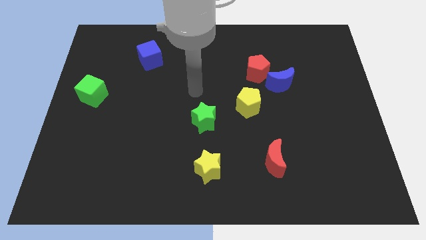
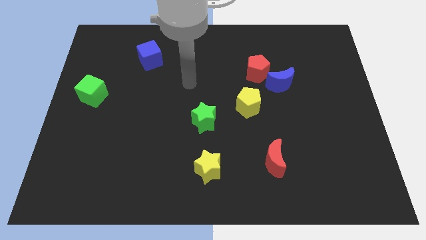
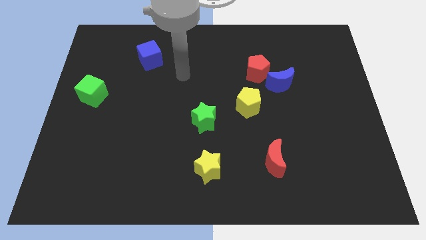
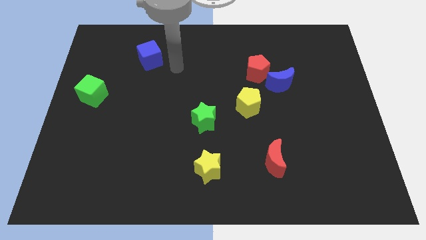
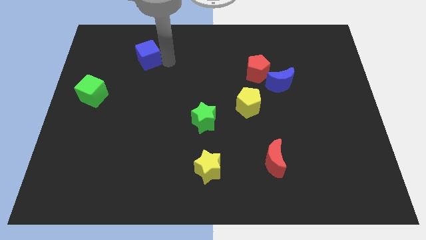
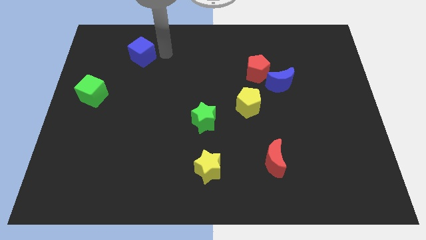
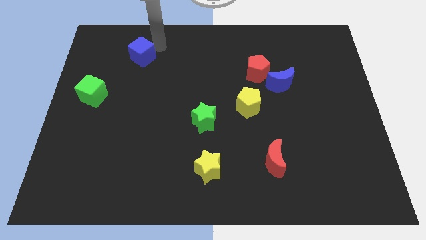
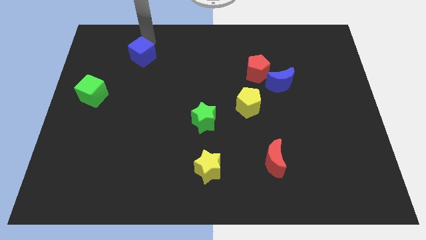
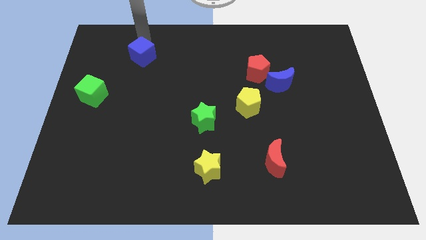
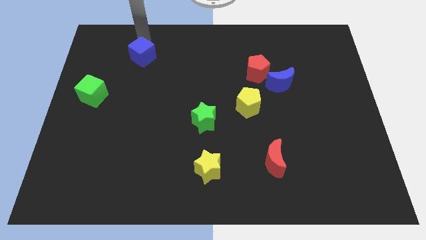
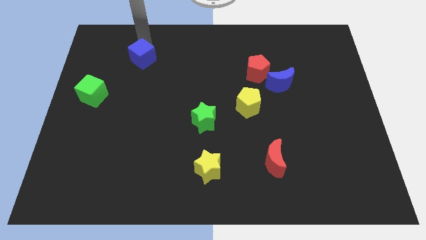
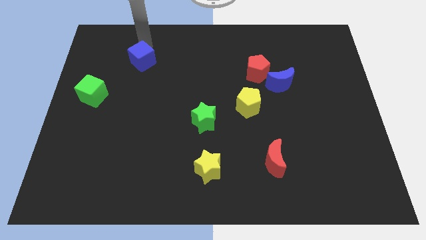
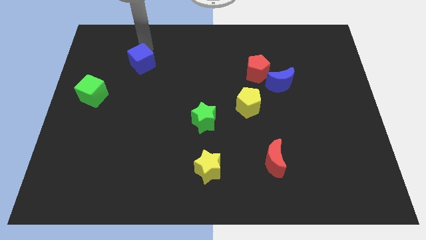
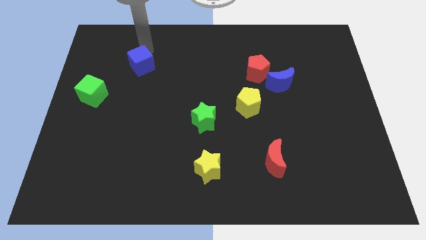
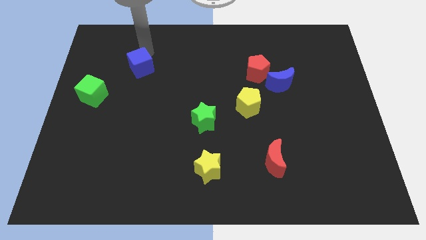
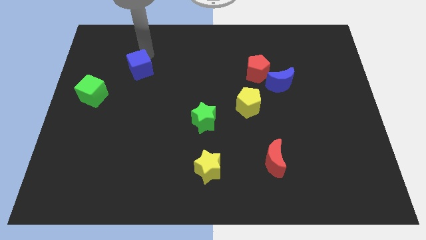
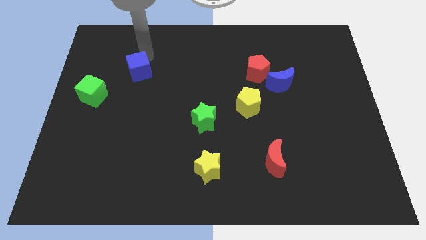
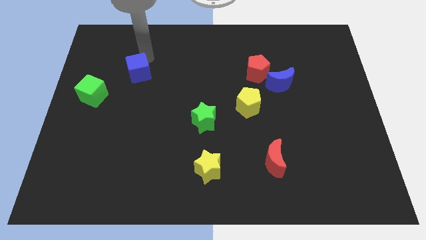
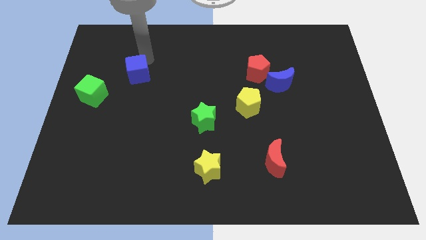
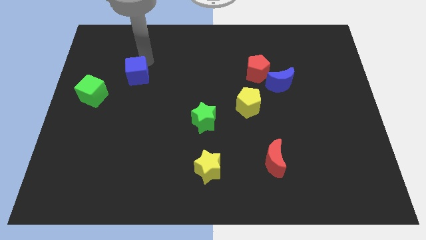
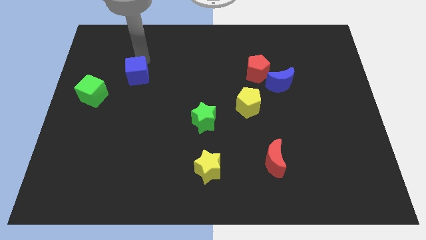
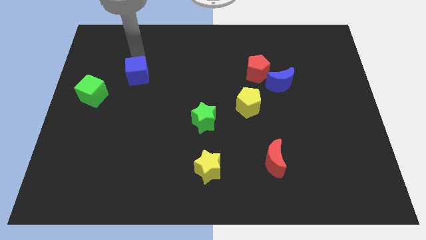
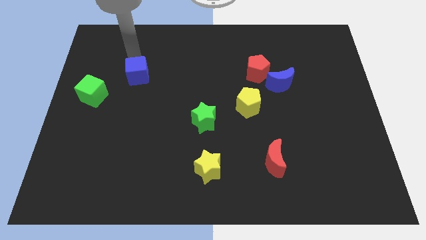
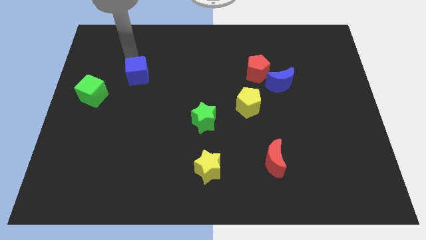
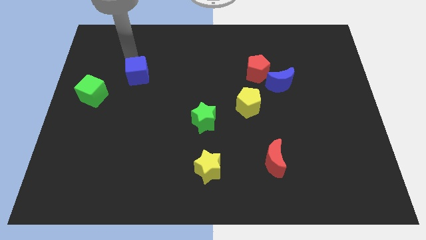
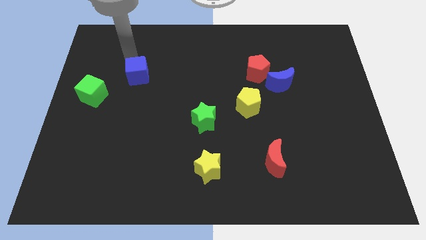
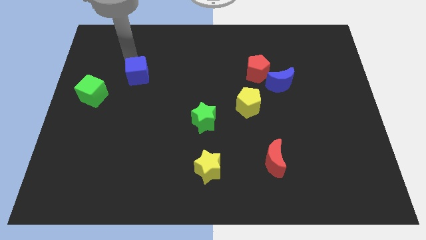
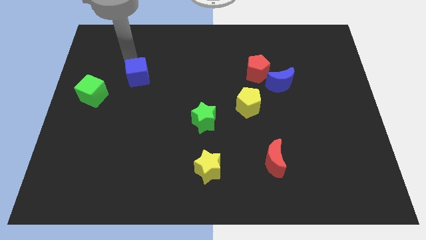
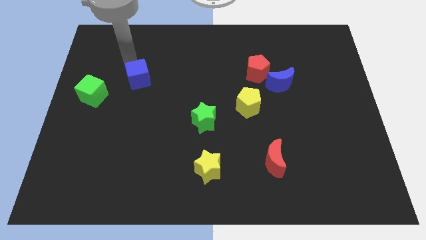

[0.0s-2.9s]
push the blue cube downwards slightly

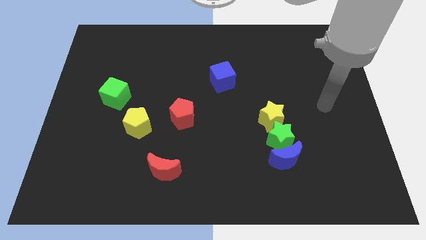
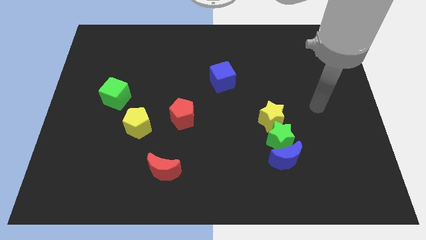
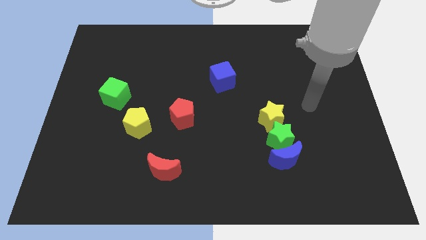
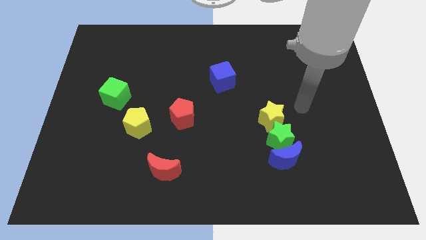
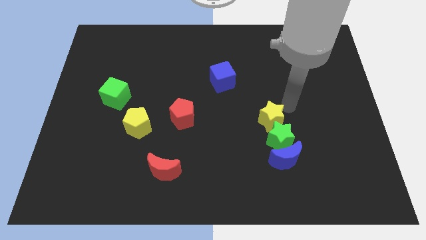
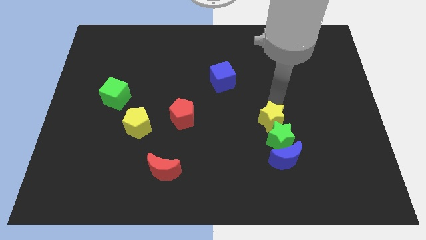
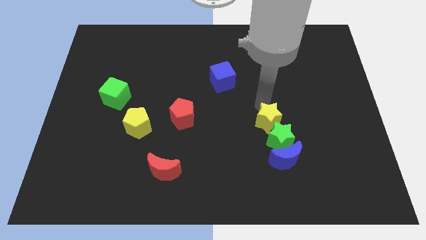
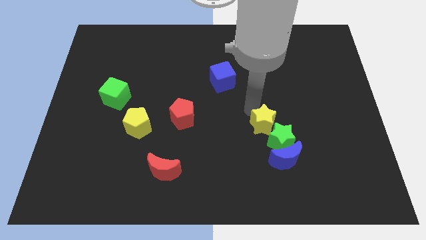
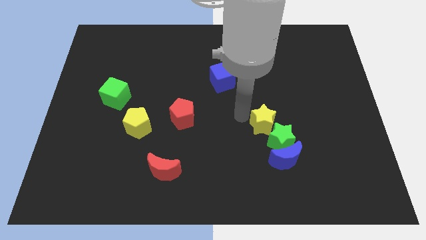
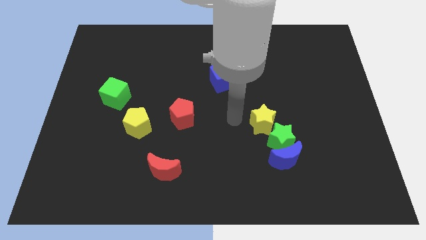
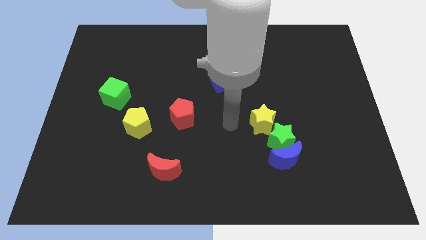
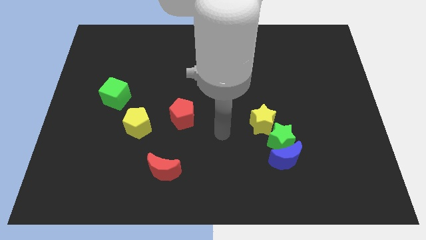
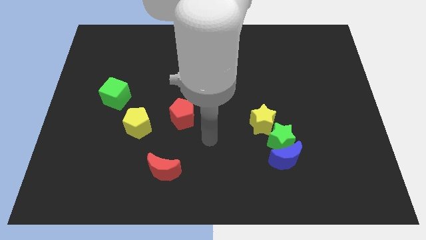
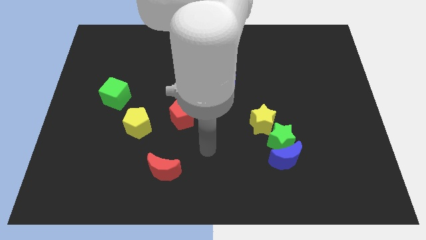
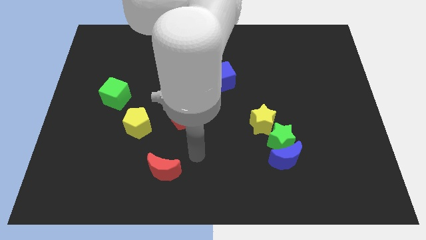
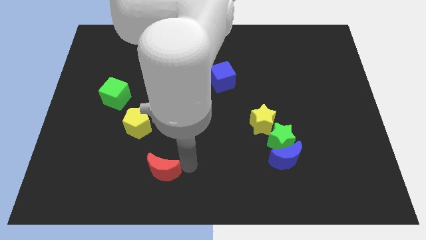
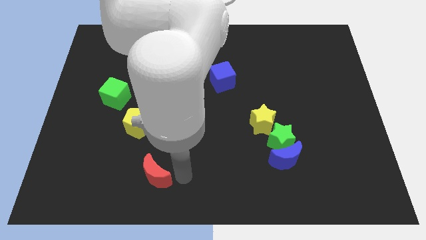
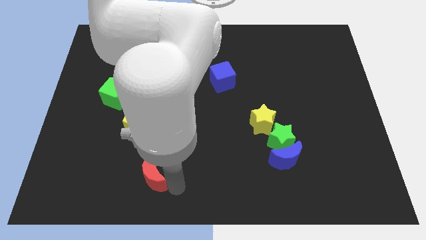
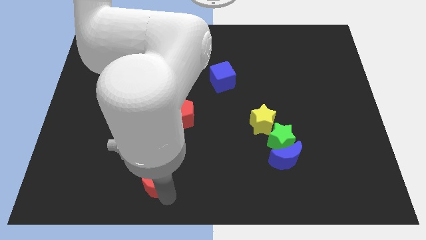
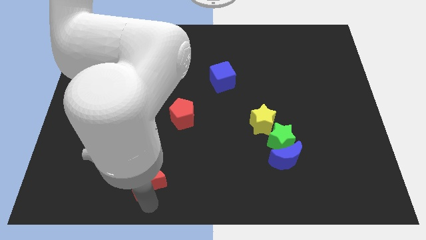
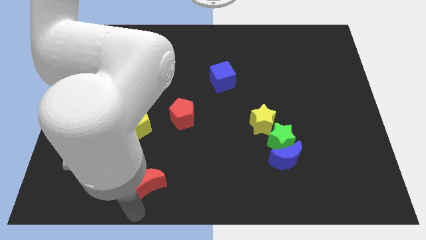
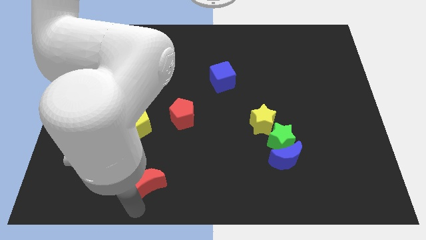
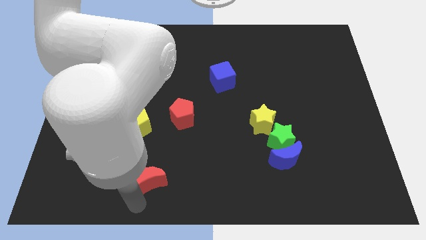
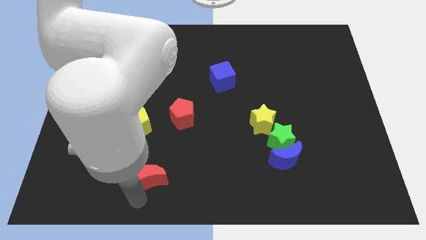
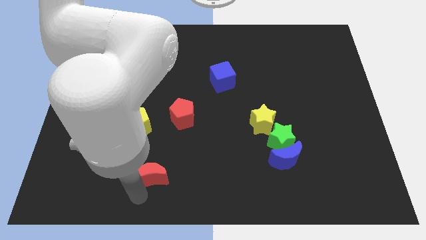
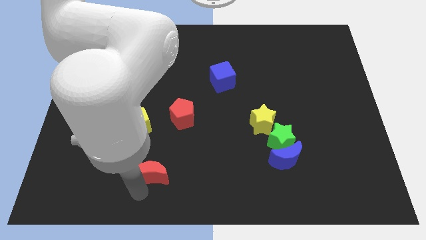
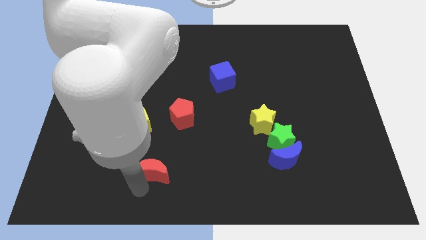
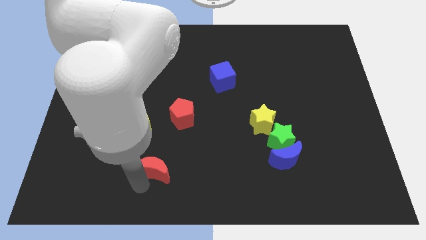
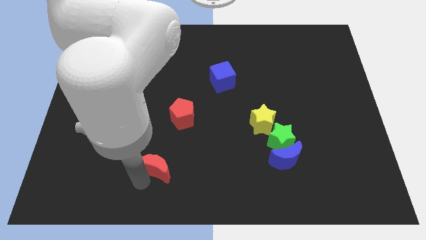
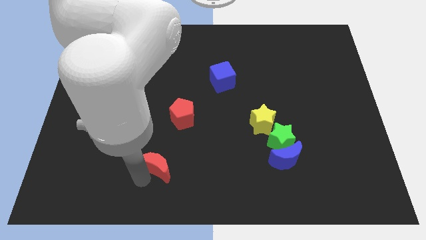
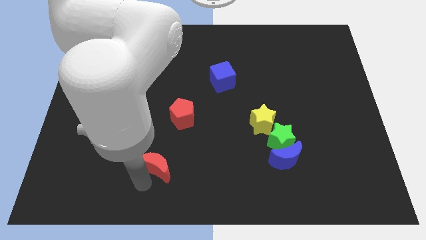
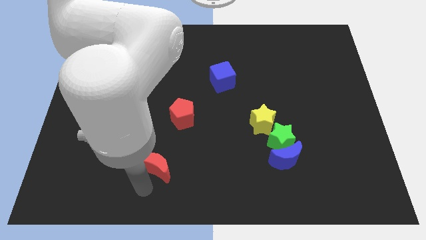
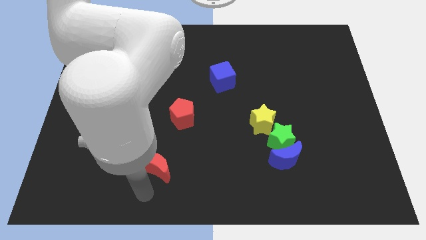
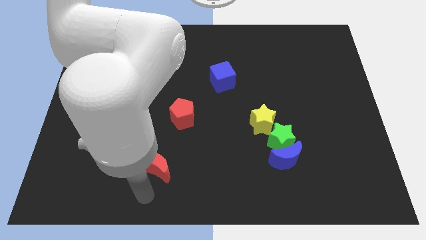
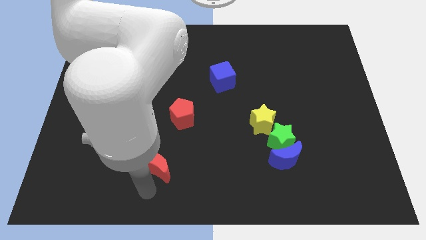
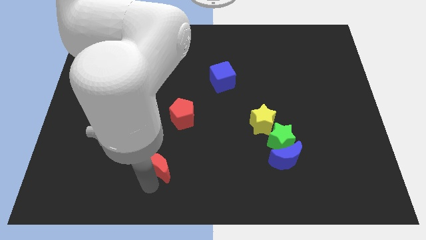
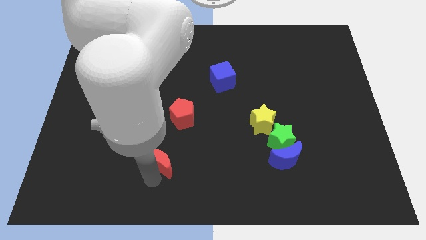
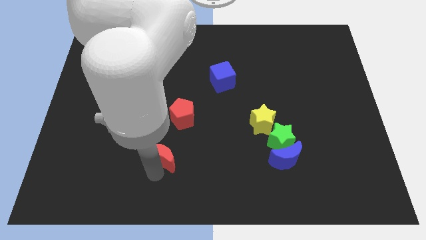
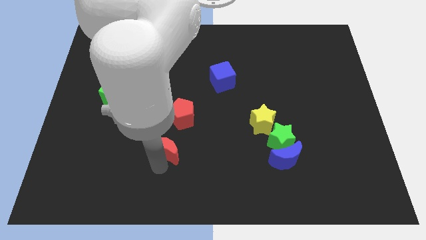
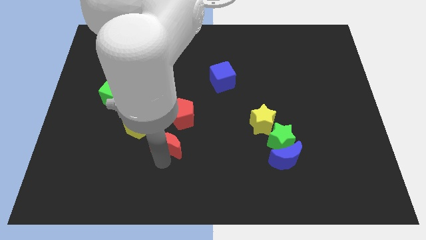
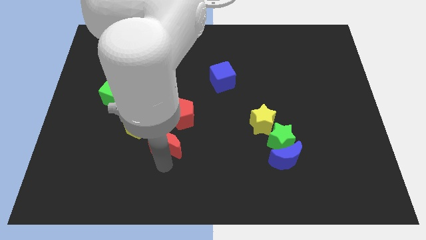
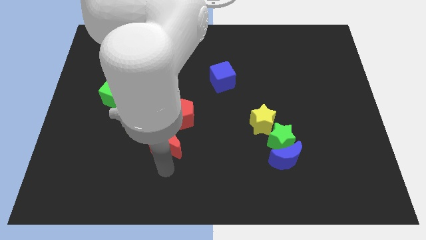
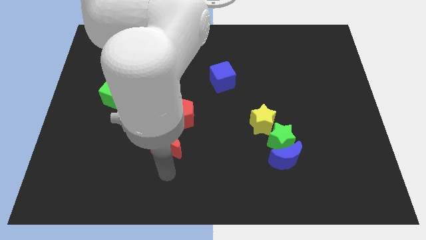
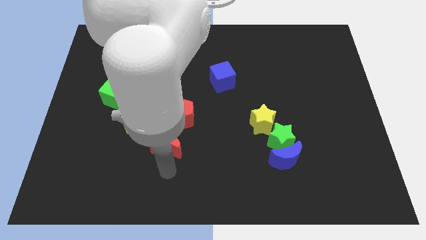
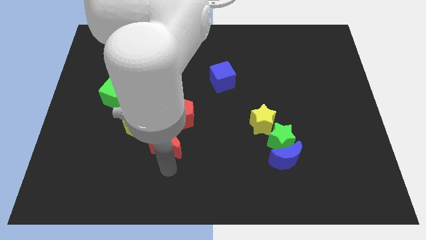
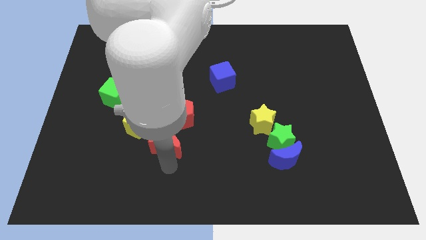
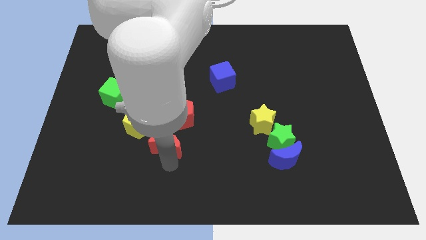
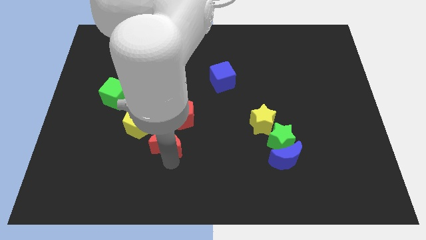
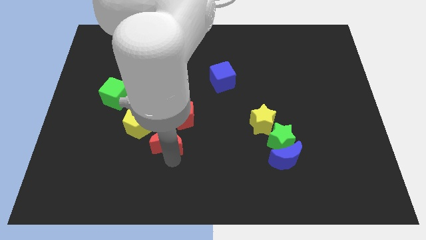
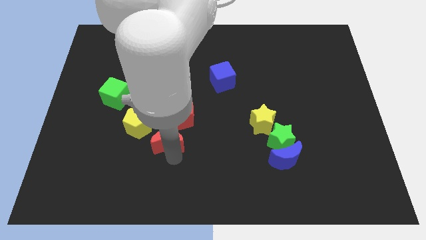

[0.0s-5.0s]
push the red moon upwards a little bit

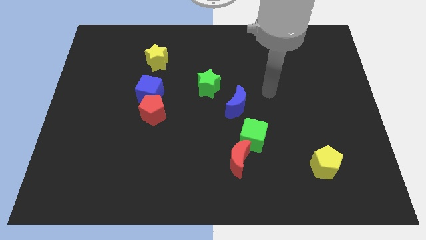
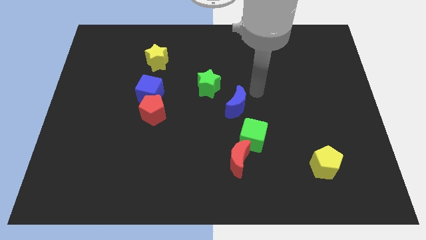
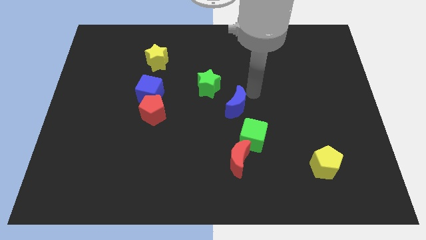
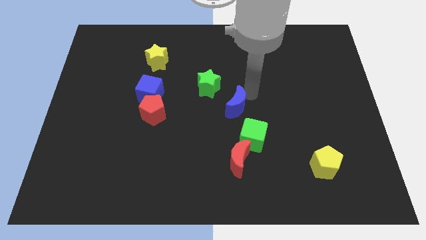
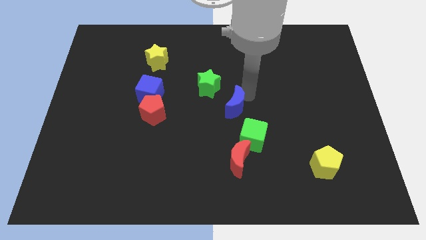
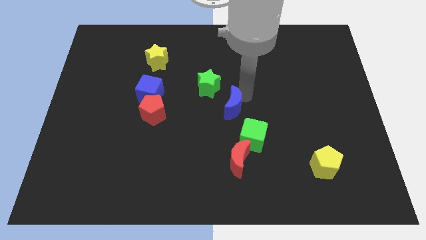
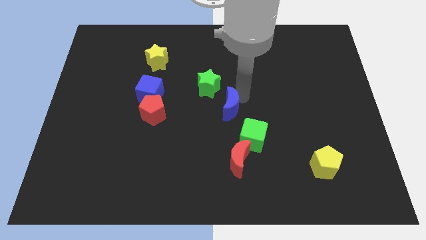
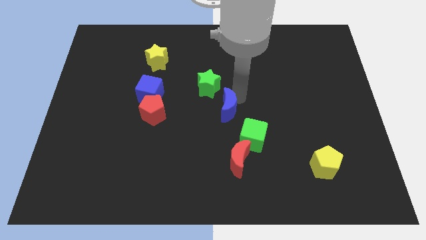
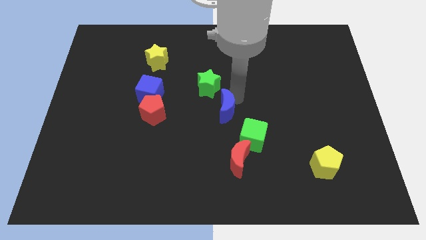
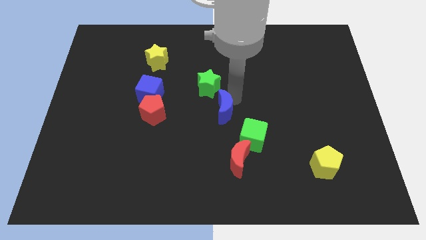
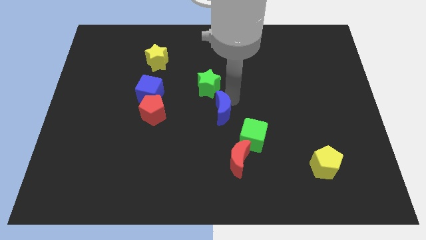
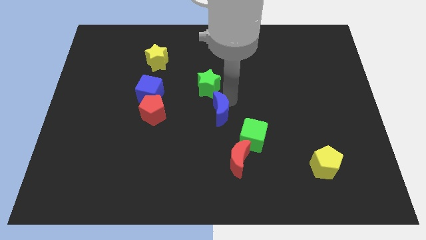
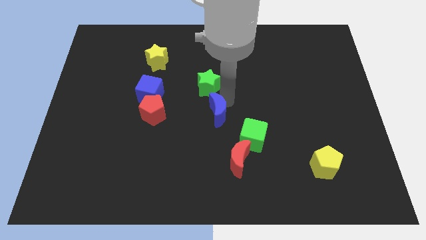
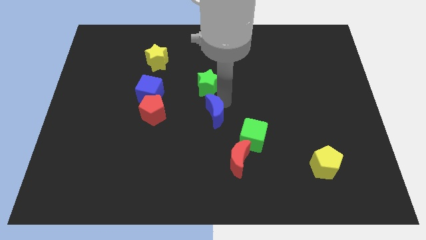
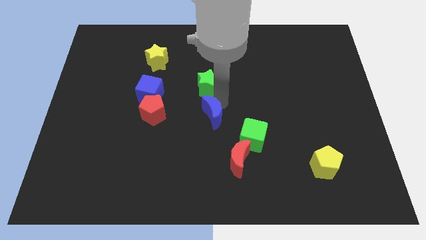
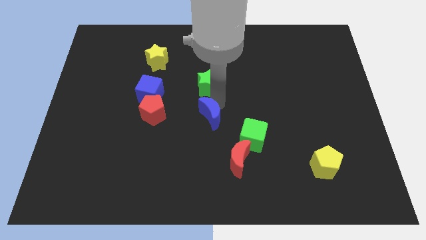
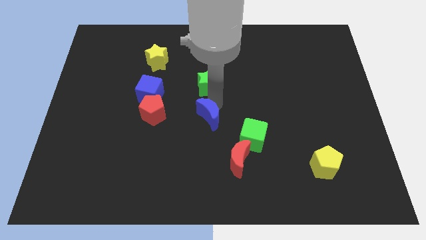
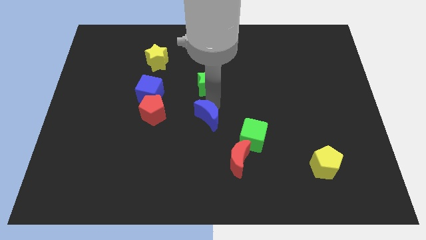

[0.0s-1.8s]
slide the blue moon downwards and left diagonally a little
